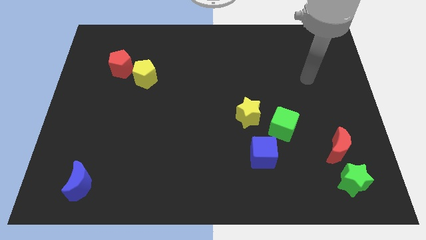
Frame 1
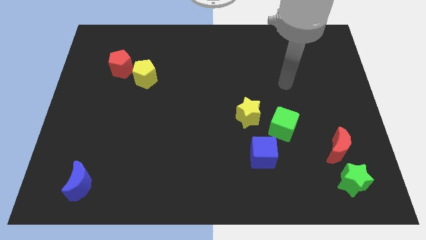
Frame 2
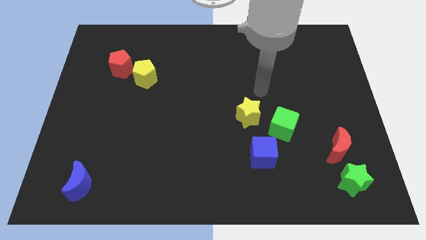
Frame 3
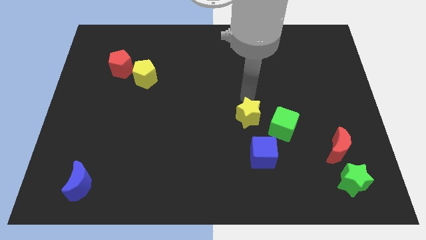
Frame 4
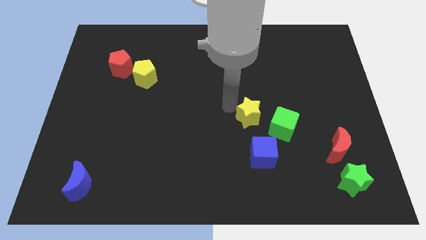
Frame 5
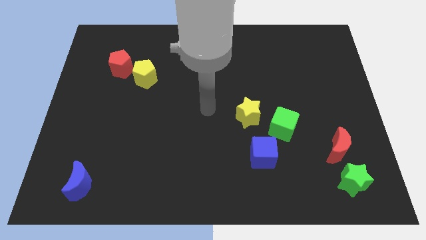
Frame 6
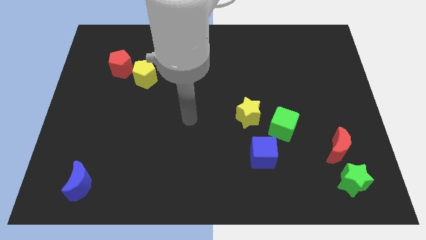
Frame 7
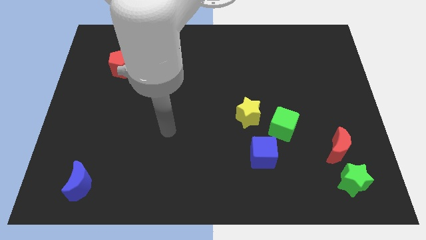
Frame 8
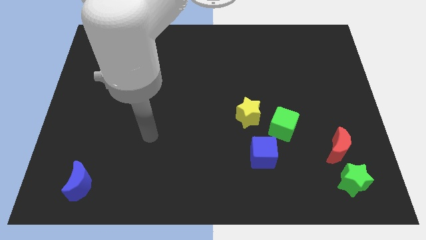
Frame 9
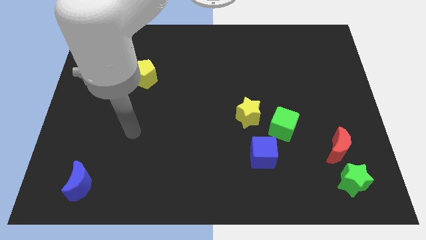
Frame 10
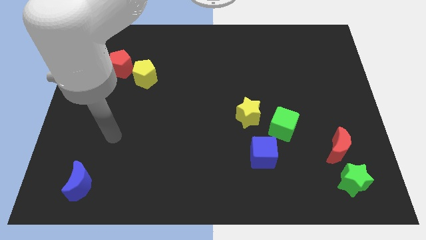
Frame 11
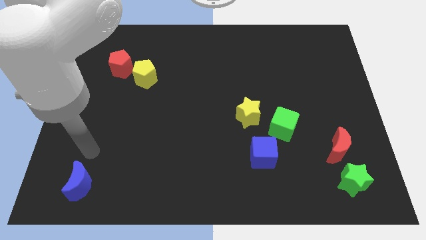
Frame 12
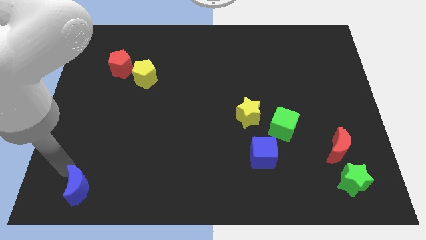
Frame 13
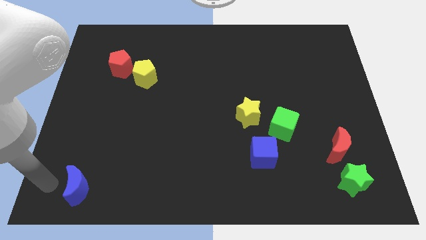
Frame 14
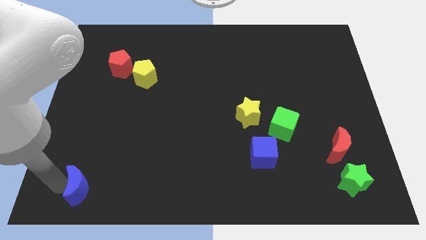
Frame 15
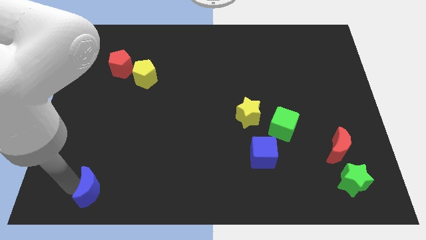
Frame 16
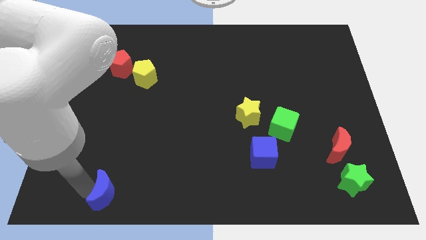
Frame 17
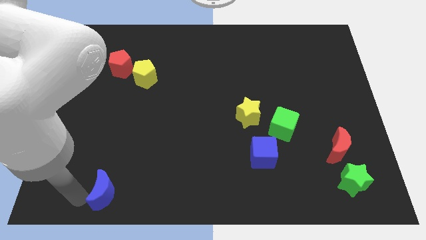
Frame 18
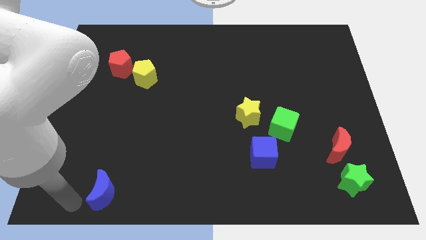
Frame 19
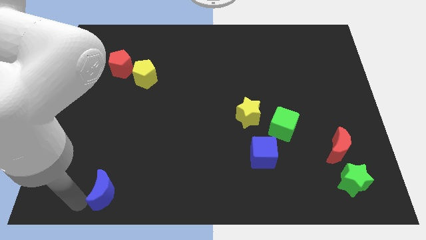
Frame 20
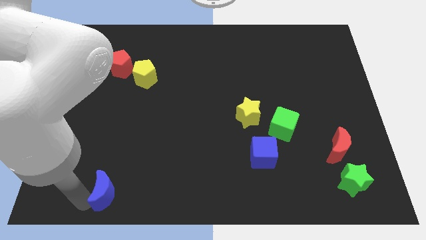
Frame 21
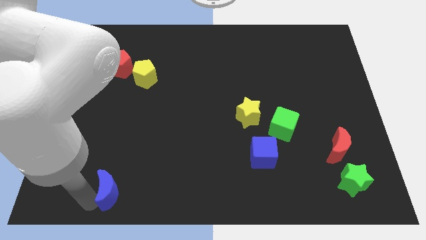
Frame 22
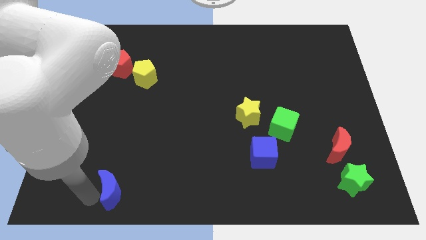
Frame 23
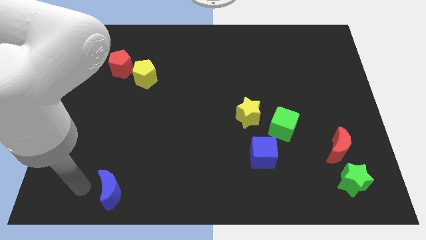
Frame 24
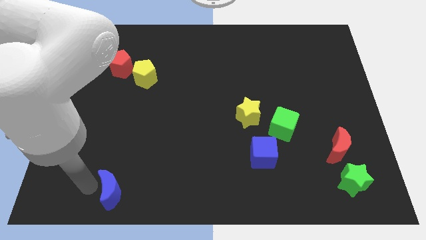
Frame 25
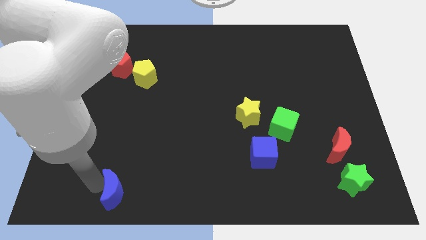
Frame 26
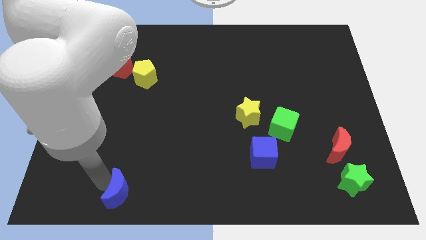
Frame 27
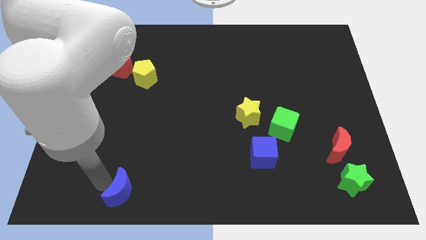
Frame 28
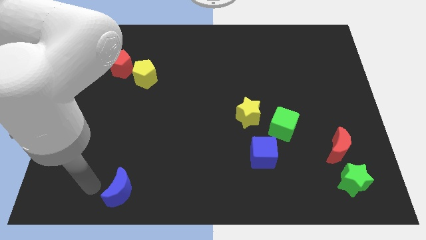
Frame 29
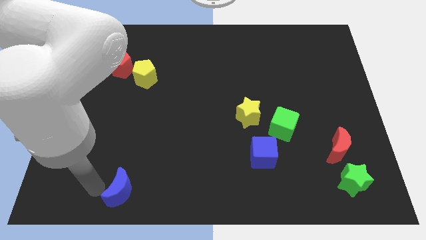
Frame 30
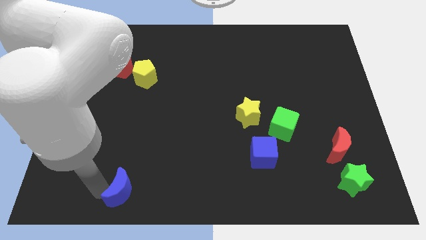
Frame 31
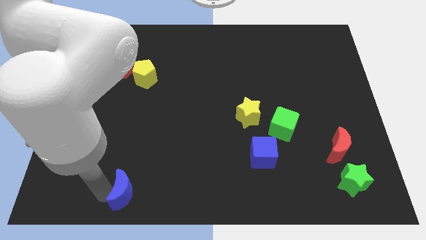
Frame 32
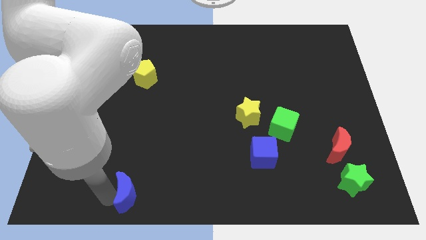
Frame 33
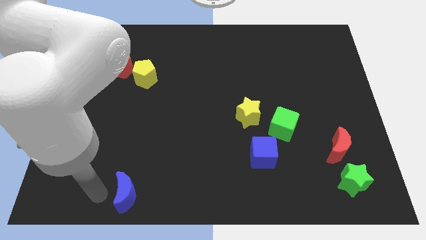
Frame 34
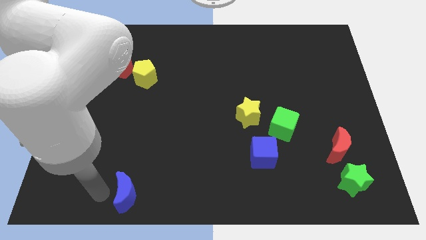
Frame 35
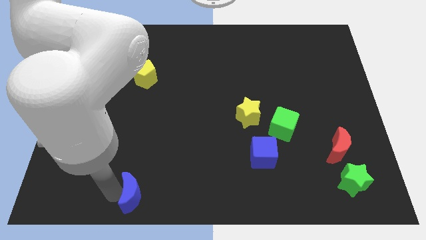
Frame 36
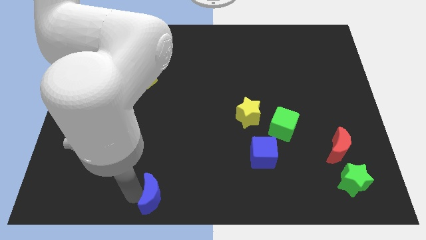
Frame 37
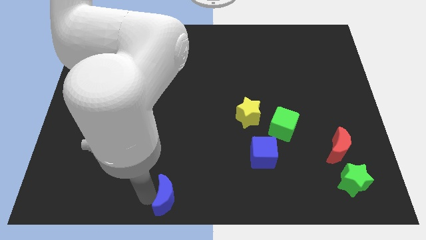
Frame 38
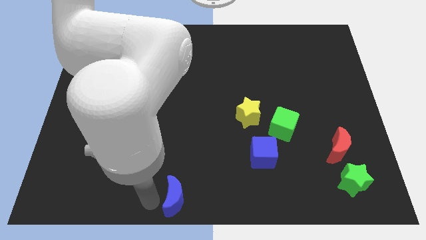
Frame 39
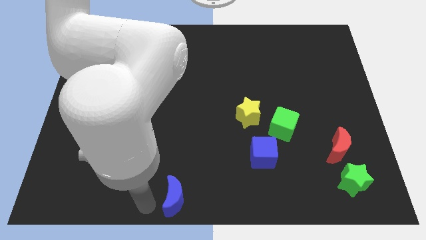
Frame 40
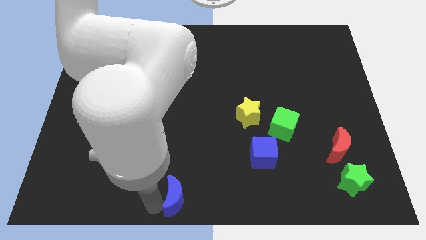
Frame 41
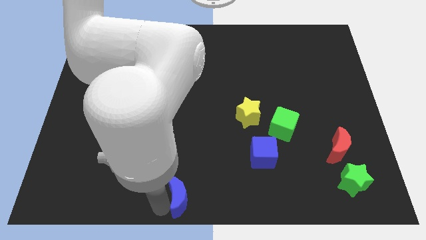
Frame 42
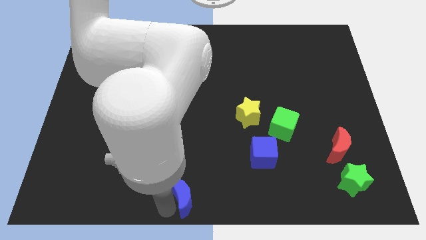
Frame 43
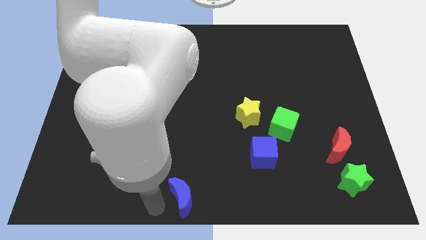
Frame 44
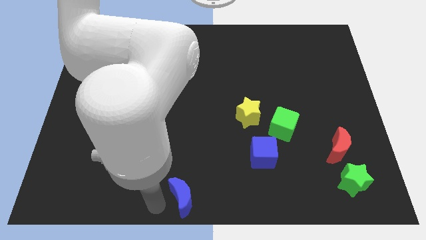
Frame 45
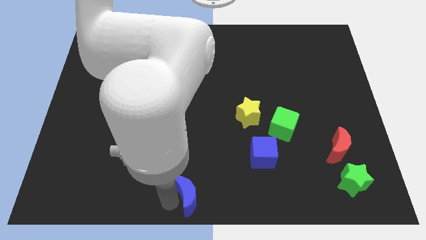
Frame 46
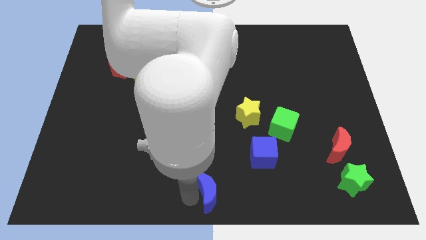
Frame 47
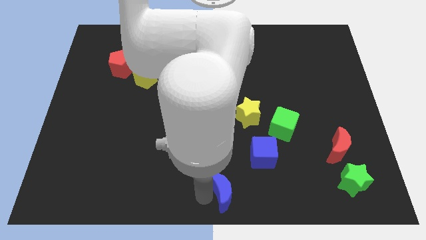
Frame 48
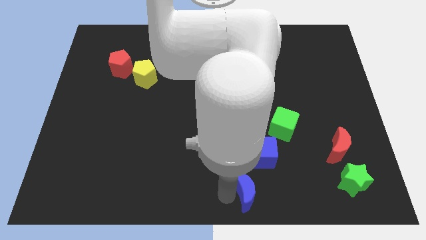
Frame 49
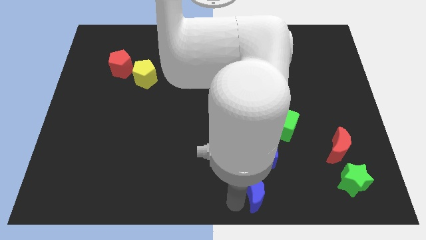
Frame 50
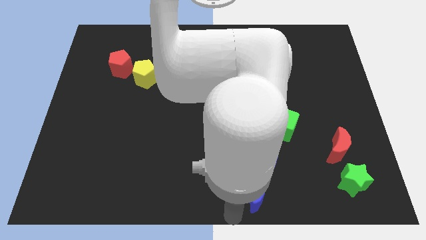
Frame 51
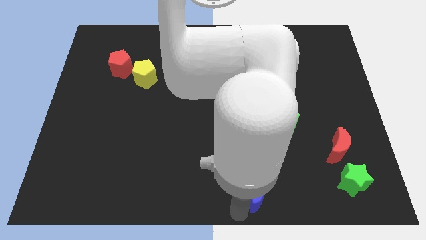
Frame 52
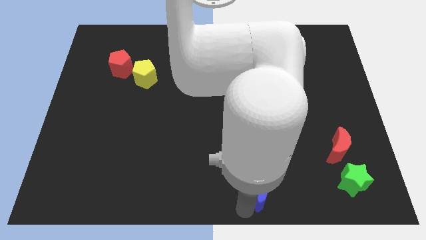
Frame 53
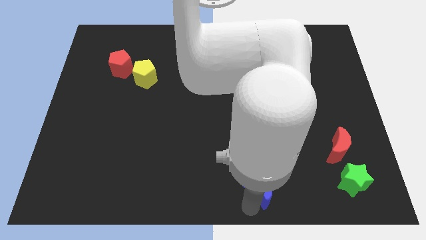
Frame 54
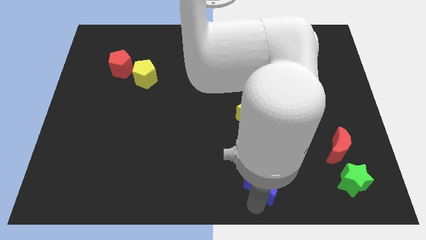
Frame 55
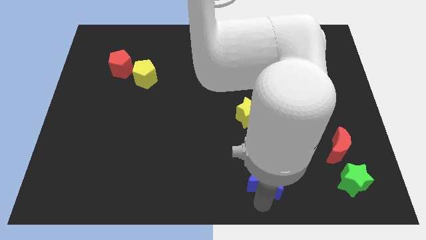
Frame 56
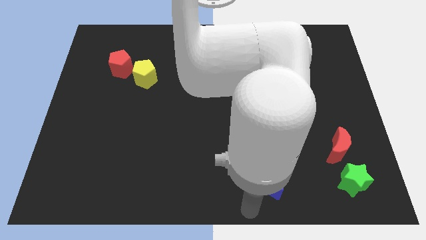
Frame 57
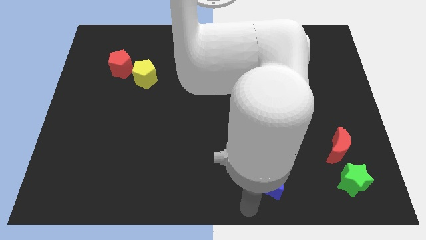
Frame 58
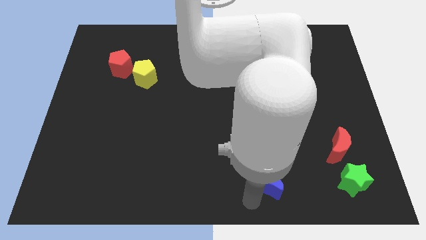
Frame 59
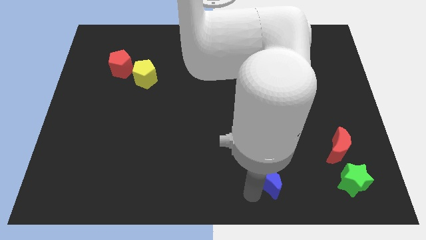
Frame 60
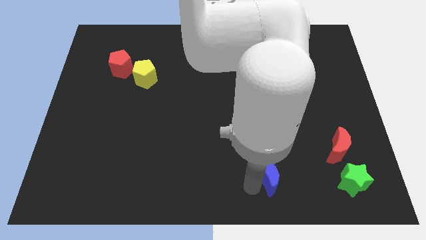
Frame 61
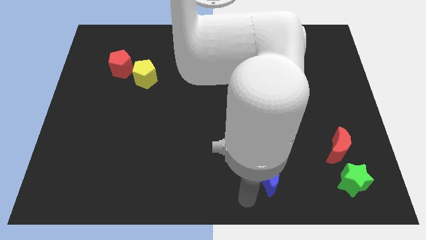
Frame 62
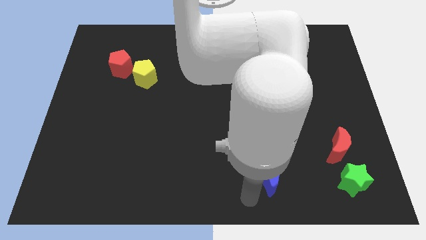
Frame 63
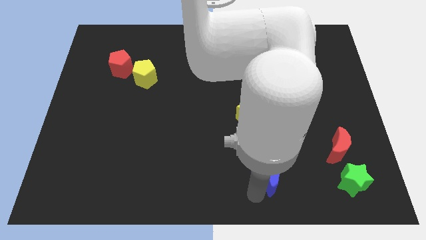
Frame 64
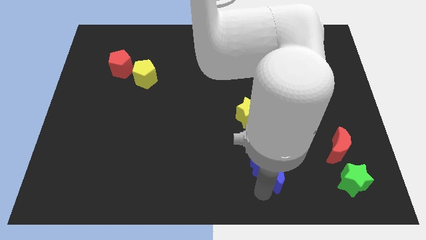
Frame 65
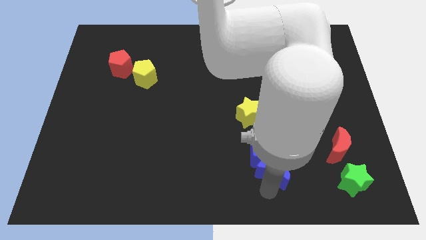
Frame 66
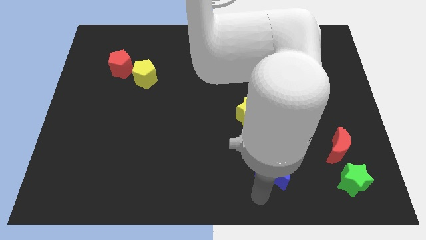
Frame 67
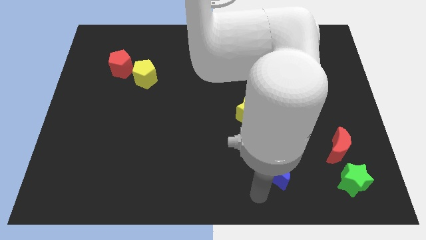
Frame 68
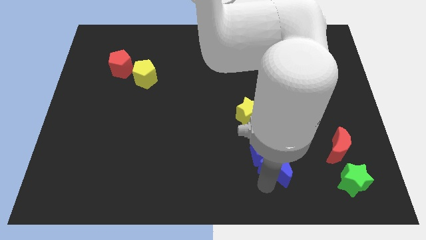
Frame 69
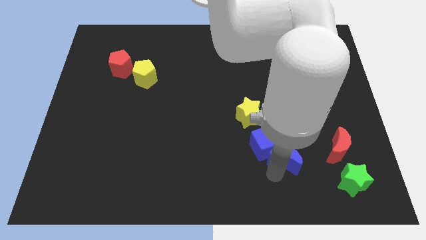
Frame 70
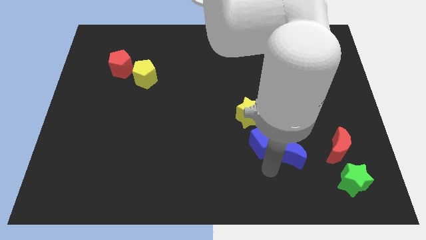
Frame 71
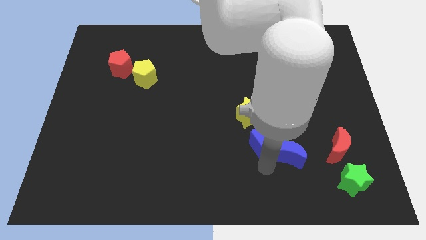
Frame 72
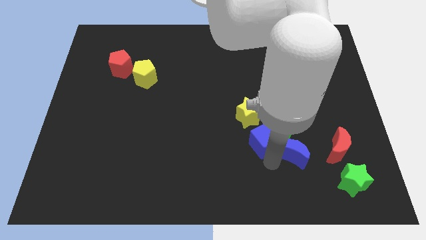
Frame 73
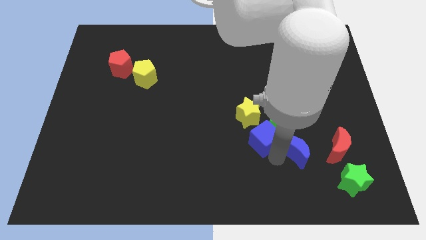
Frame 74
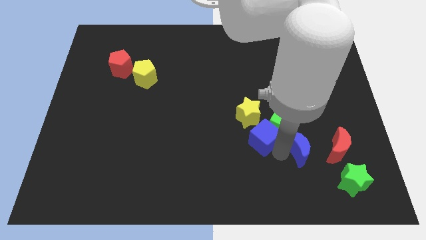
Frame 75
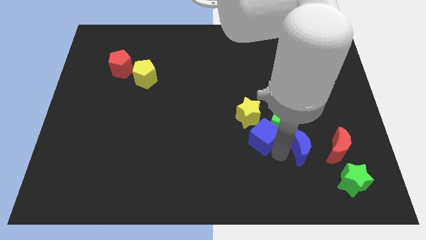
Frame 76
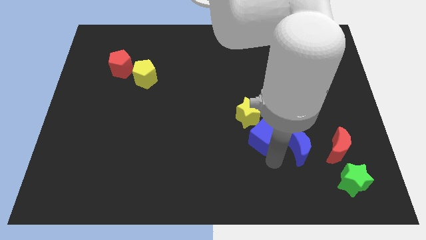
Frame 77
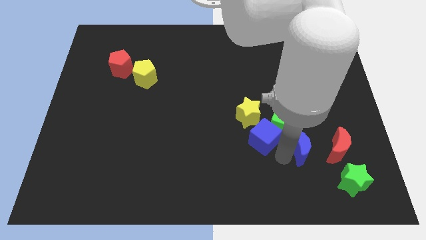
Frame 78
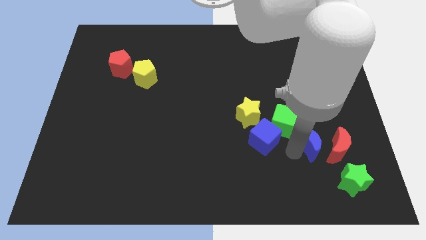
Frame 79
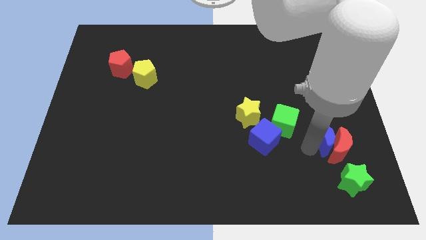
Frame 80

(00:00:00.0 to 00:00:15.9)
slide the blue moon to the top side of the green star
